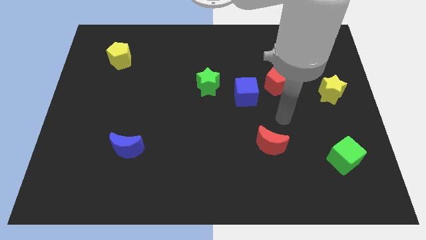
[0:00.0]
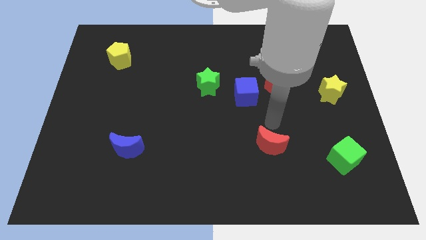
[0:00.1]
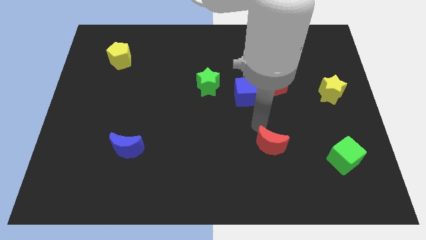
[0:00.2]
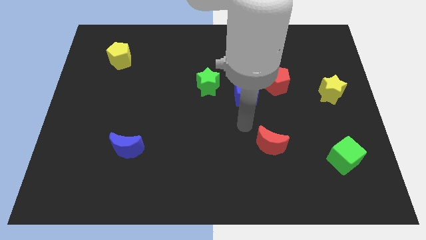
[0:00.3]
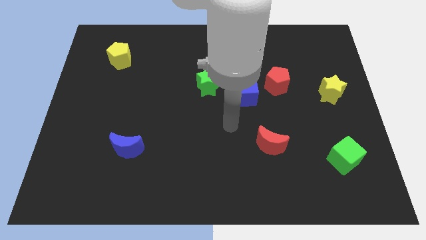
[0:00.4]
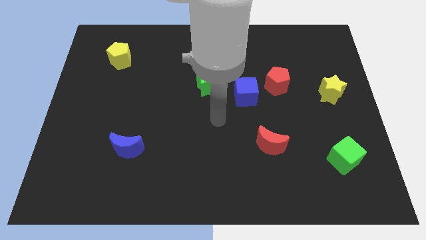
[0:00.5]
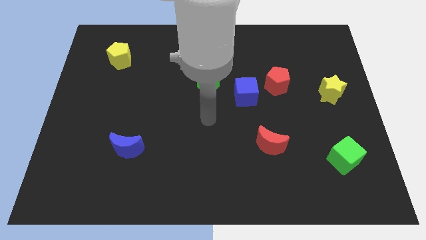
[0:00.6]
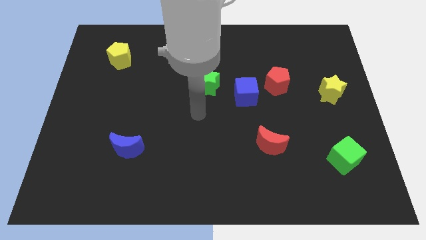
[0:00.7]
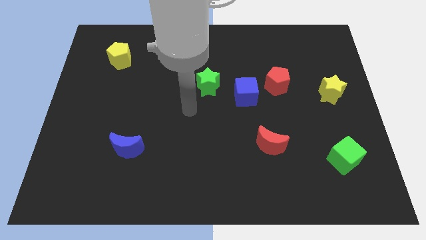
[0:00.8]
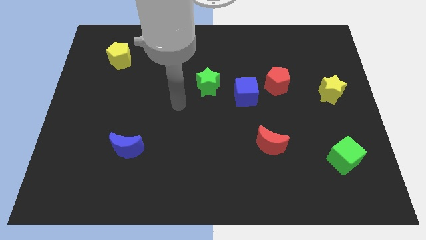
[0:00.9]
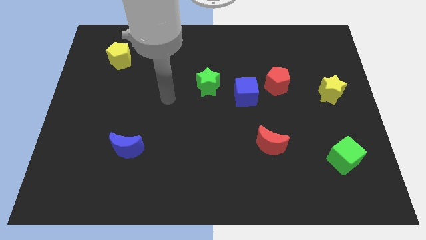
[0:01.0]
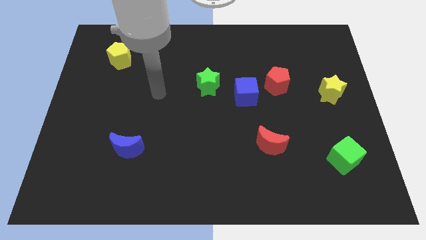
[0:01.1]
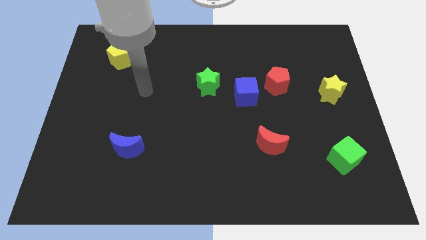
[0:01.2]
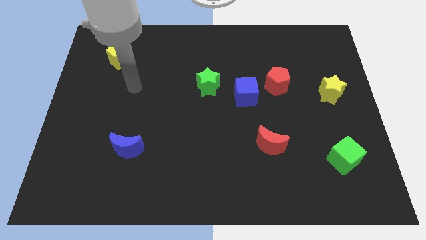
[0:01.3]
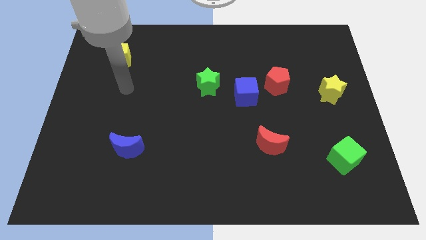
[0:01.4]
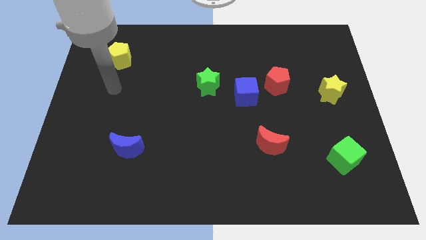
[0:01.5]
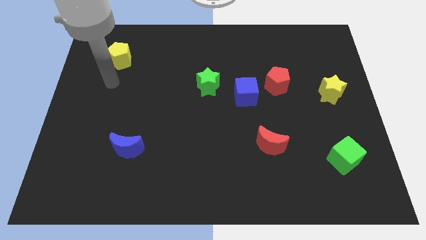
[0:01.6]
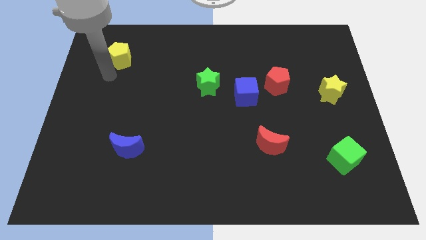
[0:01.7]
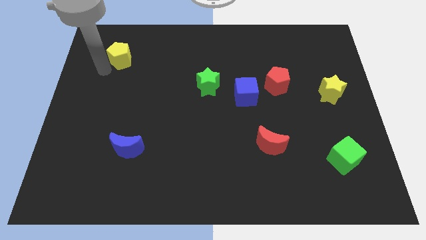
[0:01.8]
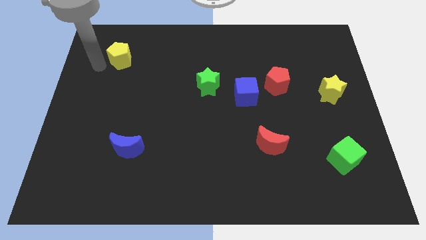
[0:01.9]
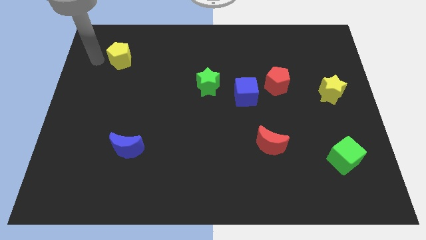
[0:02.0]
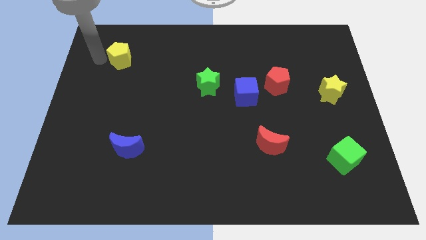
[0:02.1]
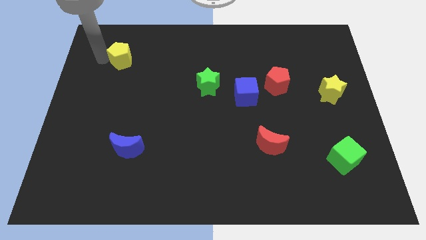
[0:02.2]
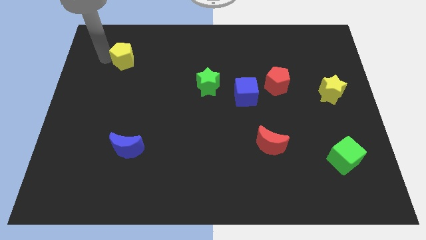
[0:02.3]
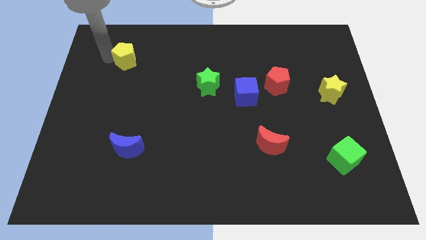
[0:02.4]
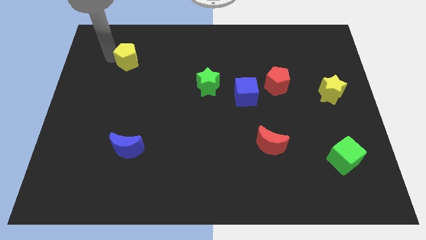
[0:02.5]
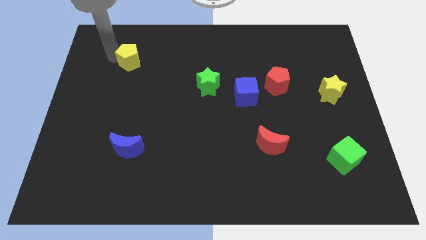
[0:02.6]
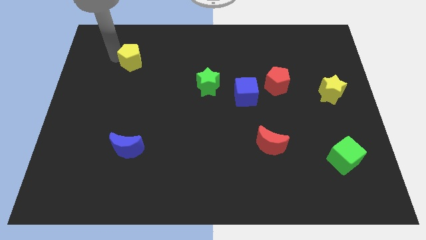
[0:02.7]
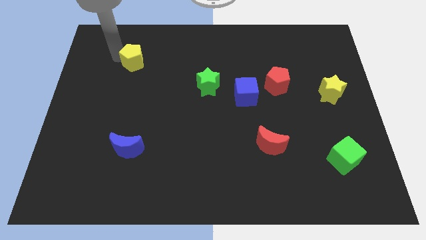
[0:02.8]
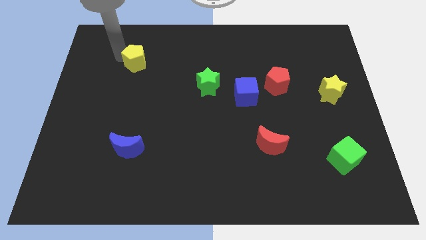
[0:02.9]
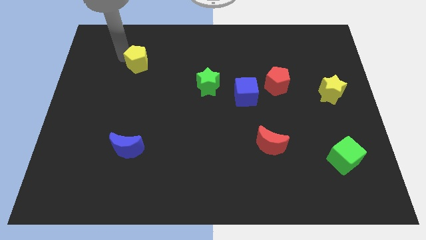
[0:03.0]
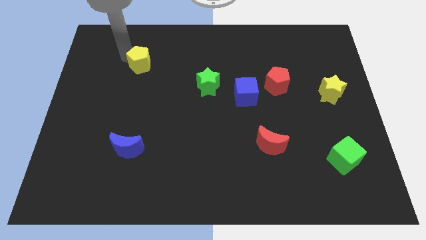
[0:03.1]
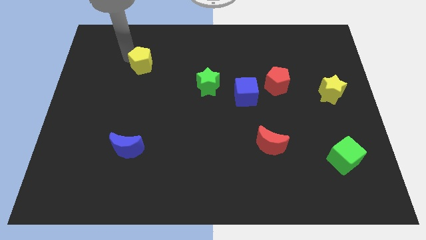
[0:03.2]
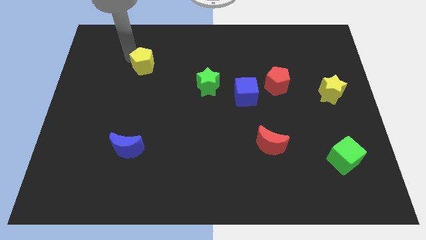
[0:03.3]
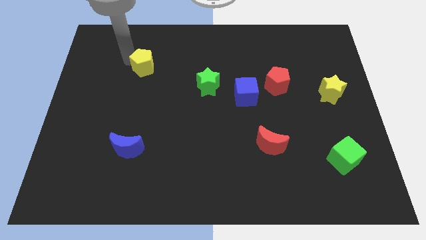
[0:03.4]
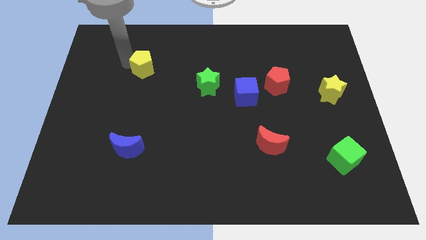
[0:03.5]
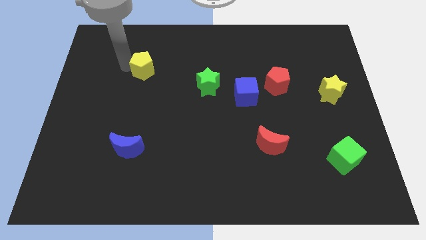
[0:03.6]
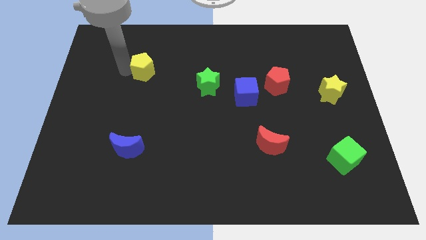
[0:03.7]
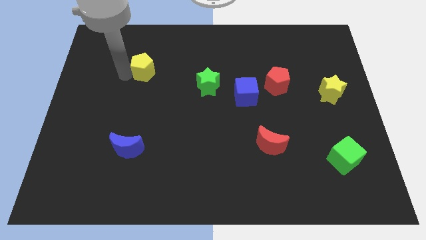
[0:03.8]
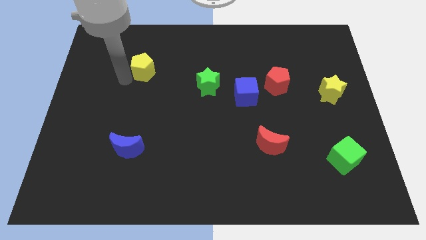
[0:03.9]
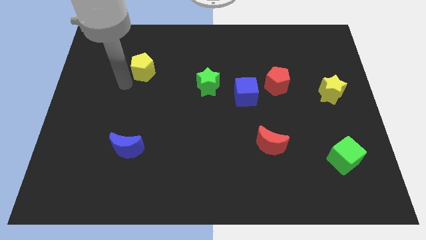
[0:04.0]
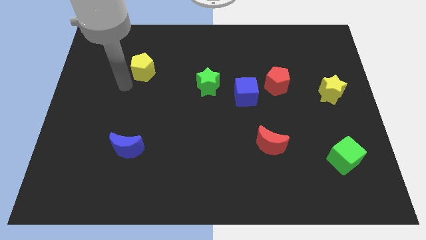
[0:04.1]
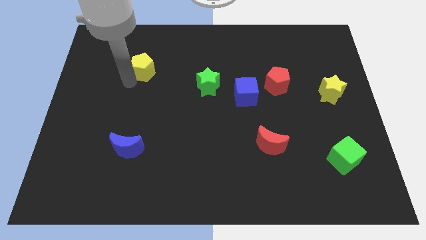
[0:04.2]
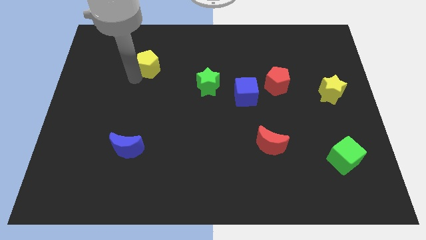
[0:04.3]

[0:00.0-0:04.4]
move the yellow pentagon to the right a little bit

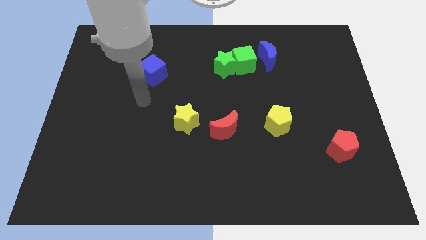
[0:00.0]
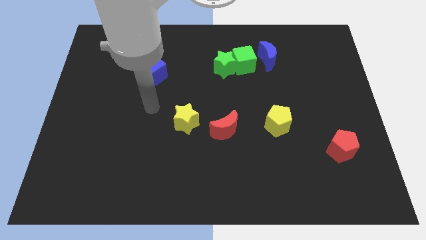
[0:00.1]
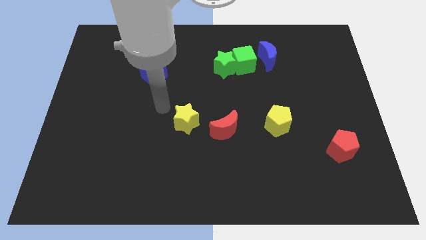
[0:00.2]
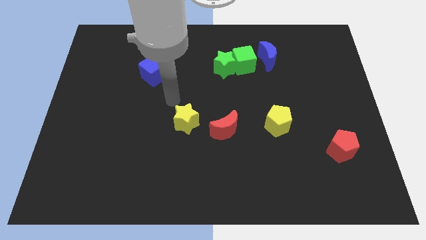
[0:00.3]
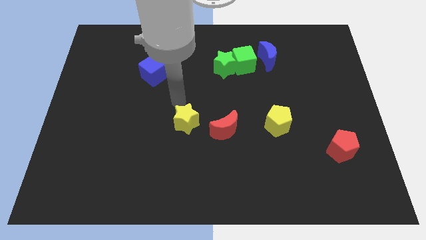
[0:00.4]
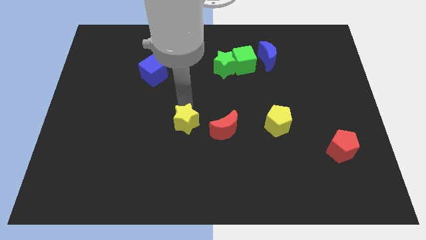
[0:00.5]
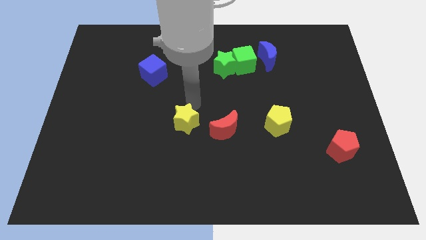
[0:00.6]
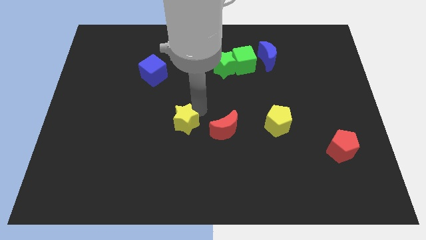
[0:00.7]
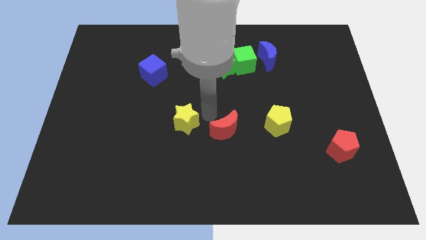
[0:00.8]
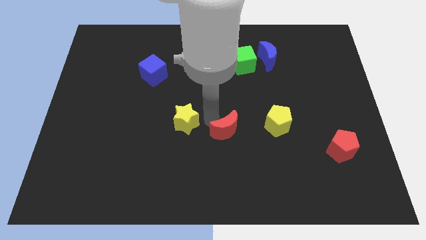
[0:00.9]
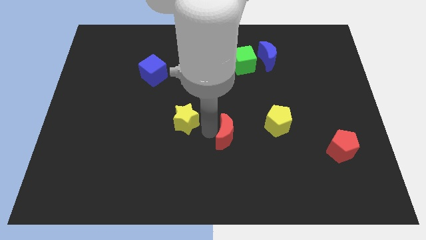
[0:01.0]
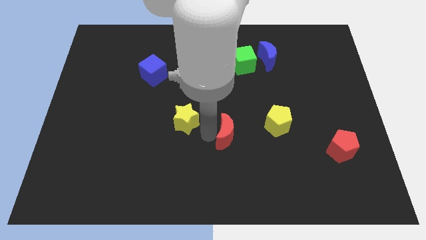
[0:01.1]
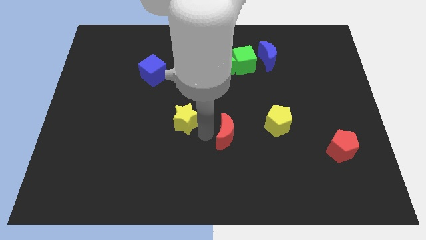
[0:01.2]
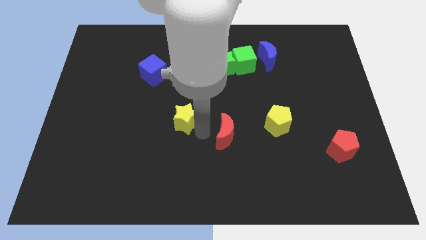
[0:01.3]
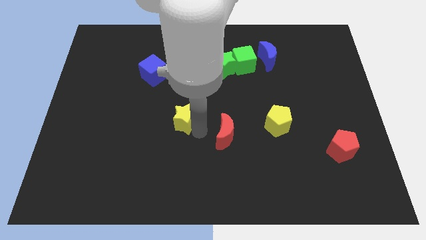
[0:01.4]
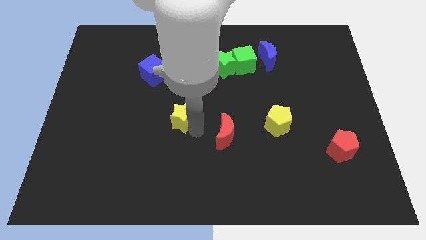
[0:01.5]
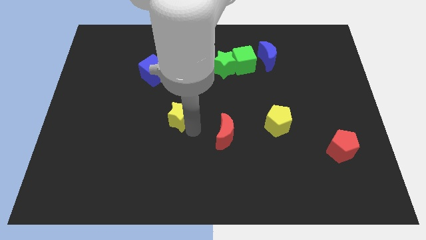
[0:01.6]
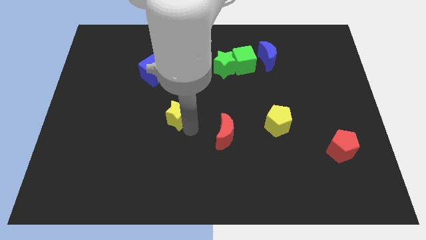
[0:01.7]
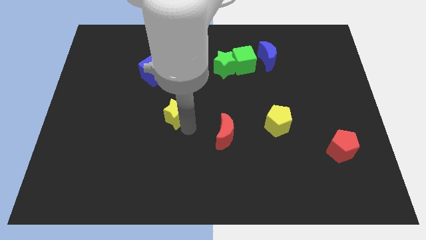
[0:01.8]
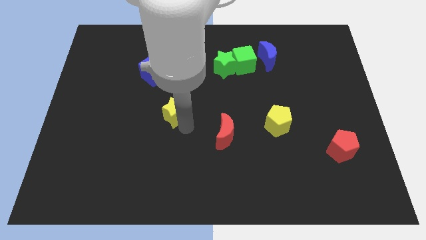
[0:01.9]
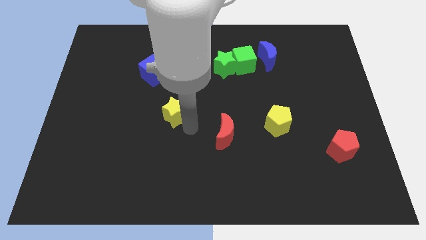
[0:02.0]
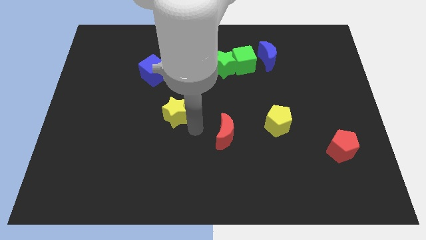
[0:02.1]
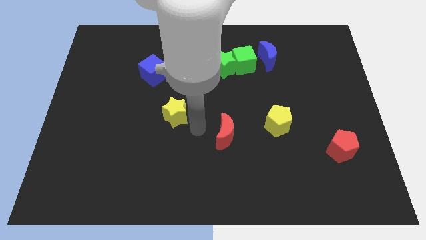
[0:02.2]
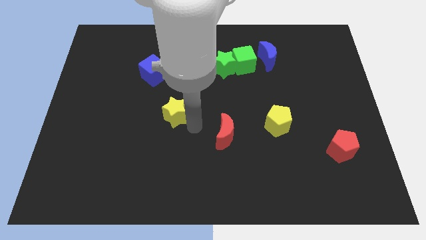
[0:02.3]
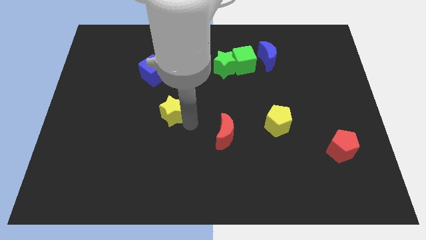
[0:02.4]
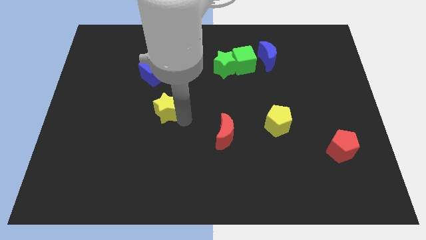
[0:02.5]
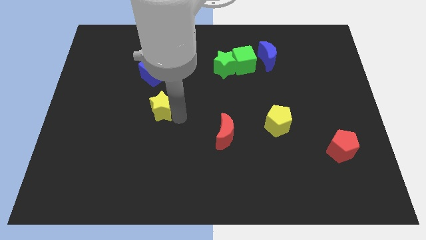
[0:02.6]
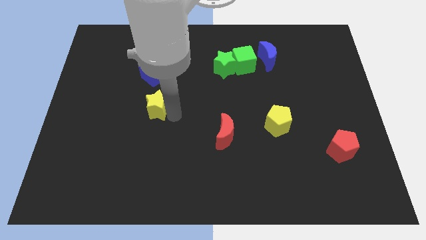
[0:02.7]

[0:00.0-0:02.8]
slightly push the yellow star up and left

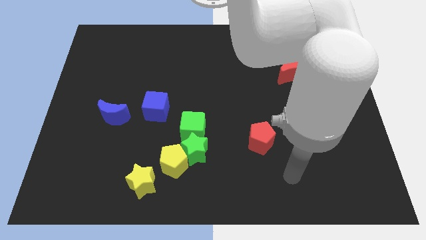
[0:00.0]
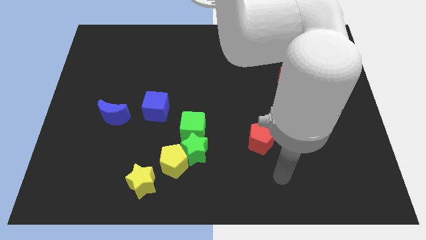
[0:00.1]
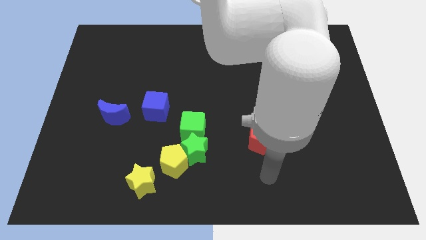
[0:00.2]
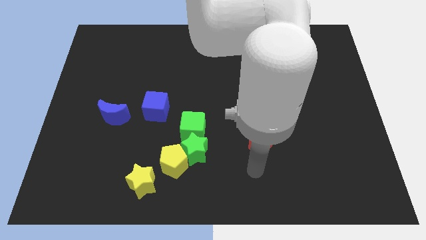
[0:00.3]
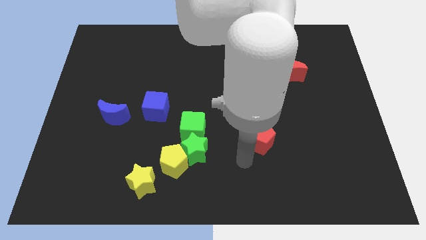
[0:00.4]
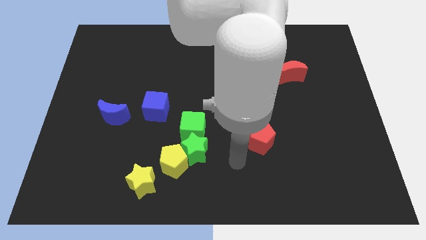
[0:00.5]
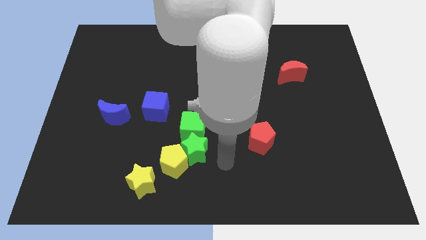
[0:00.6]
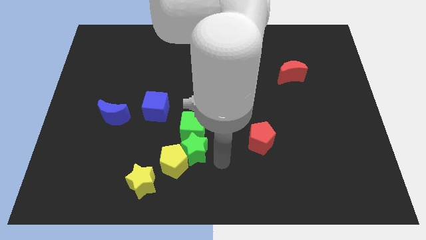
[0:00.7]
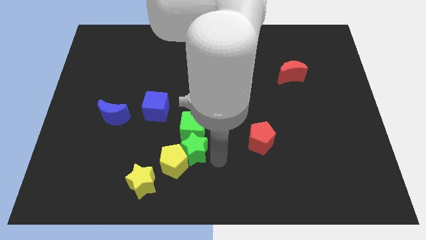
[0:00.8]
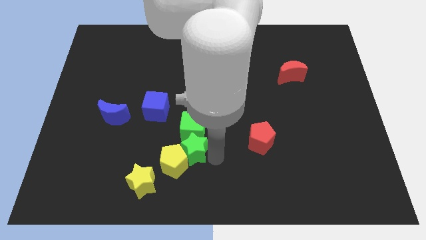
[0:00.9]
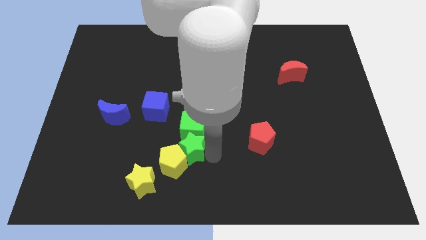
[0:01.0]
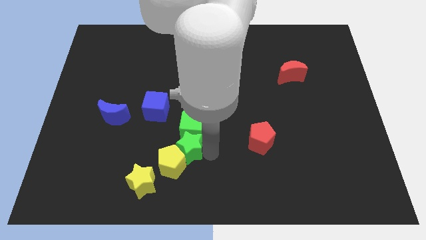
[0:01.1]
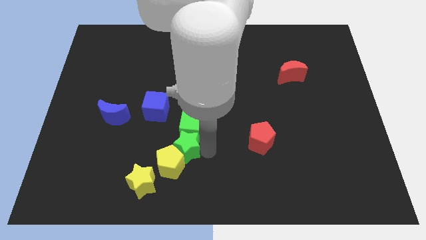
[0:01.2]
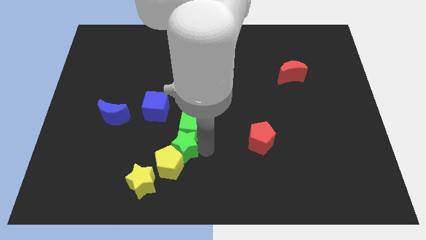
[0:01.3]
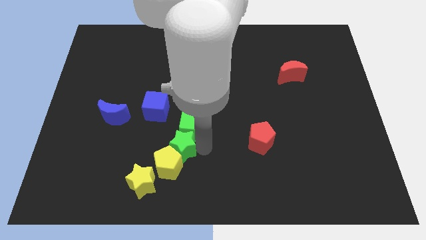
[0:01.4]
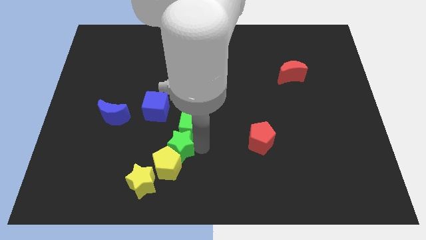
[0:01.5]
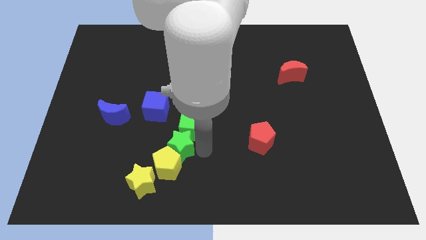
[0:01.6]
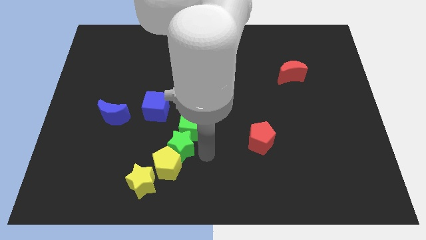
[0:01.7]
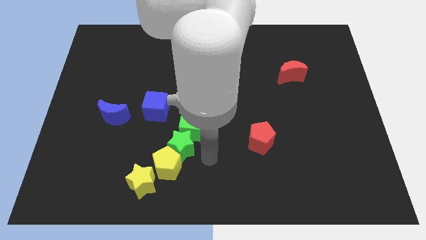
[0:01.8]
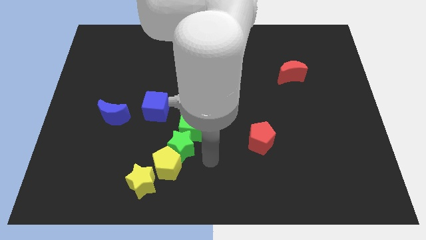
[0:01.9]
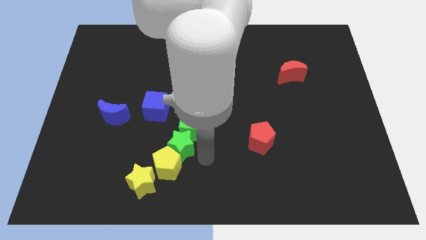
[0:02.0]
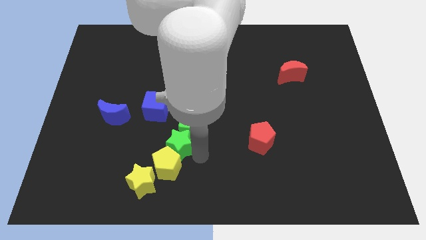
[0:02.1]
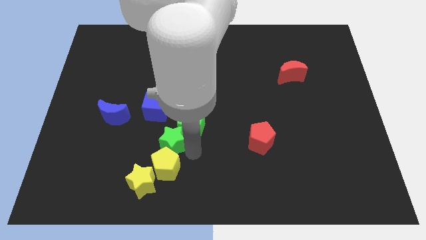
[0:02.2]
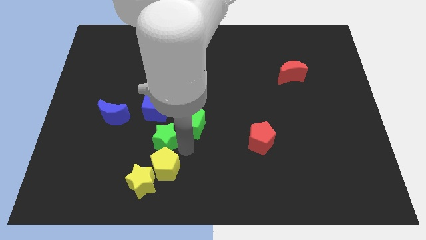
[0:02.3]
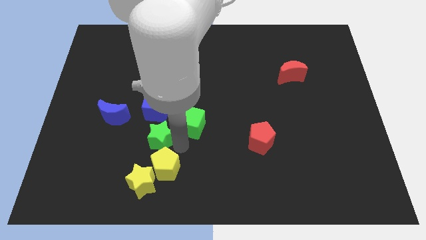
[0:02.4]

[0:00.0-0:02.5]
slide the green star a bit left
